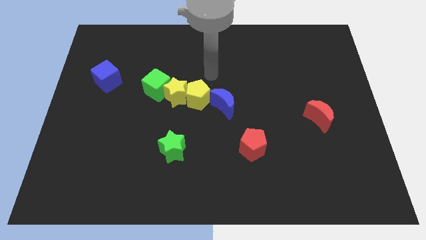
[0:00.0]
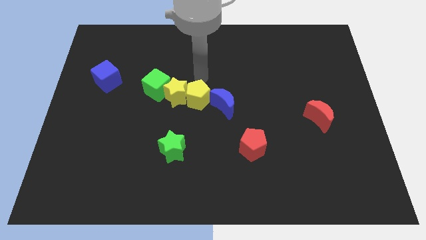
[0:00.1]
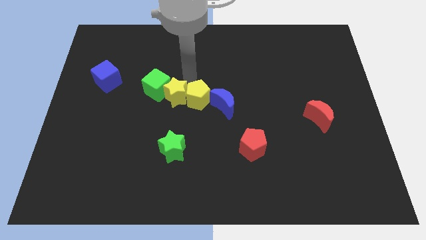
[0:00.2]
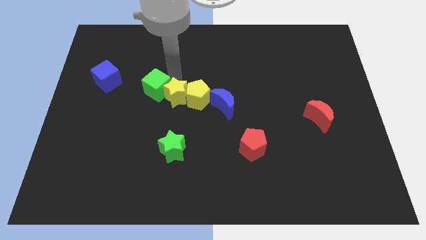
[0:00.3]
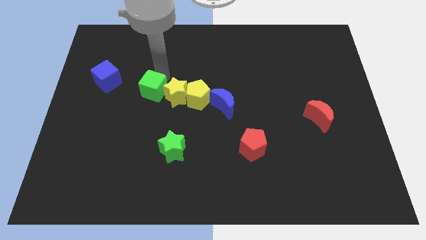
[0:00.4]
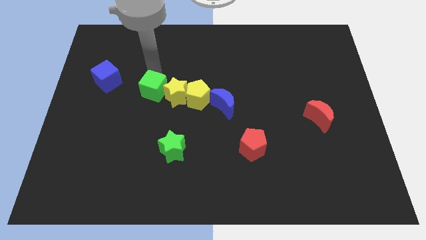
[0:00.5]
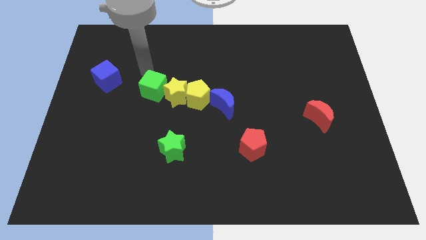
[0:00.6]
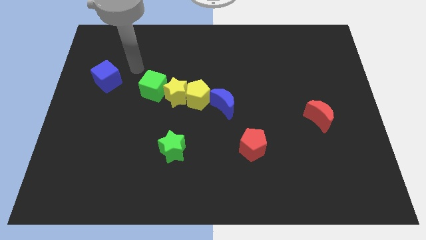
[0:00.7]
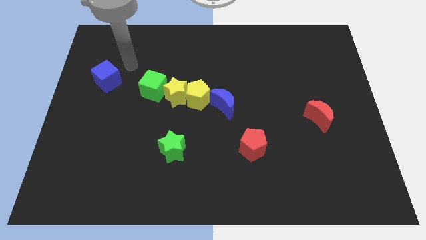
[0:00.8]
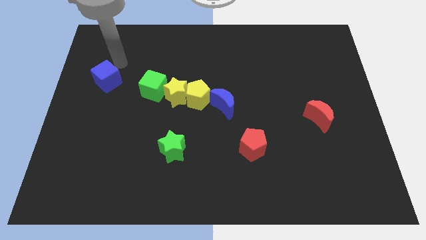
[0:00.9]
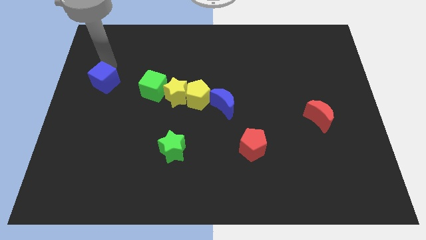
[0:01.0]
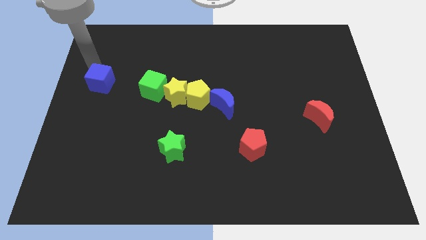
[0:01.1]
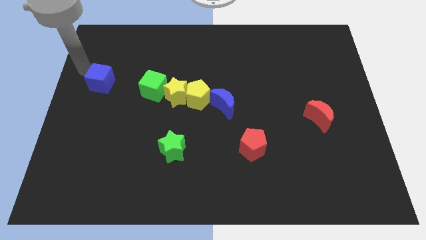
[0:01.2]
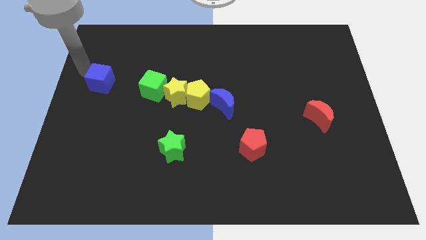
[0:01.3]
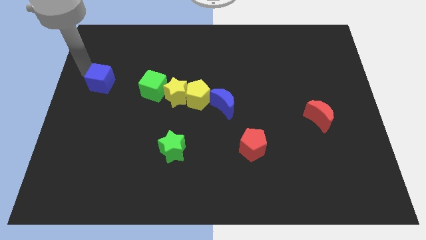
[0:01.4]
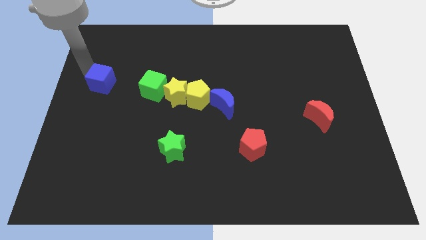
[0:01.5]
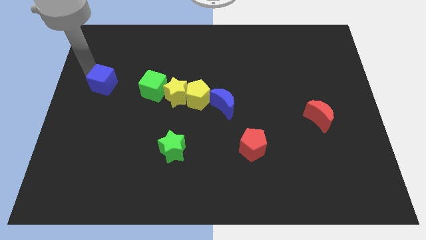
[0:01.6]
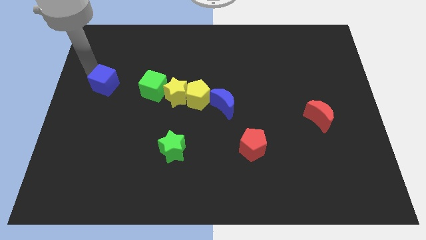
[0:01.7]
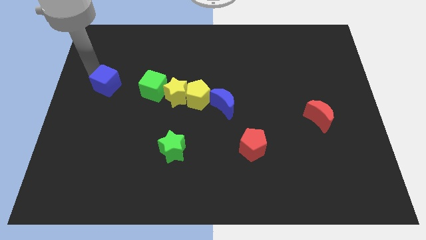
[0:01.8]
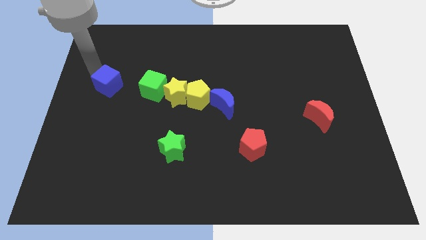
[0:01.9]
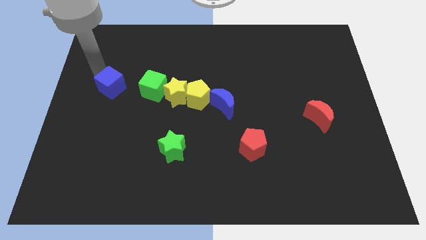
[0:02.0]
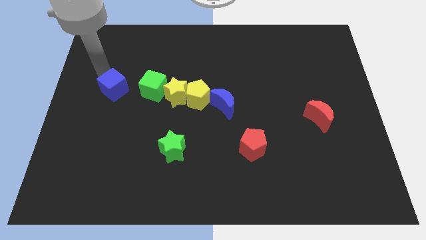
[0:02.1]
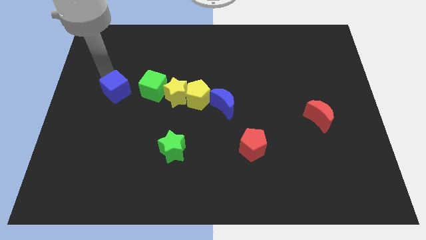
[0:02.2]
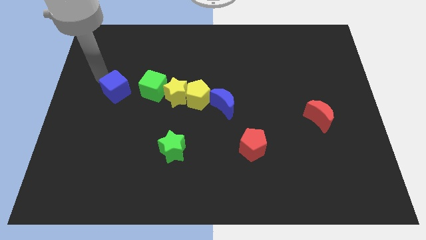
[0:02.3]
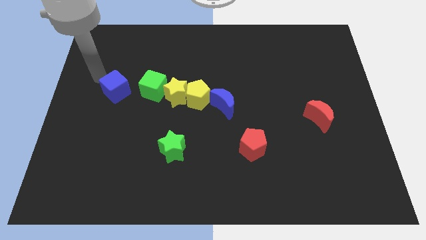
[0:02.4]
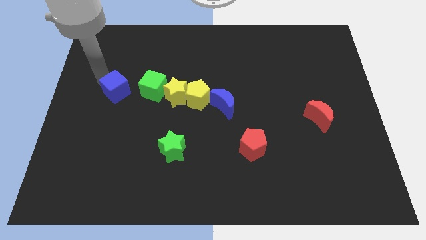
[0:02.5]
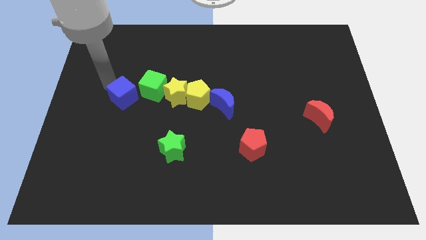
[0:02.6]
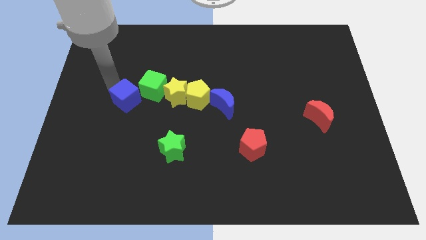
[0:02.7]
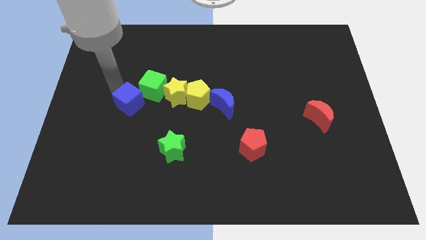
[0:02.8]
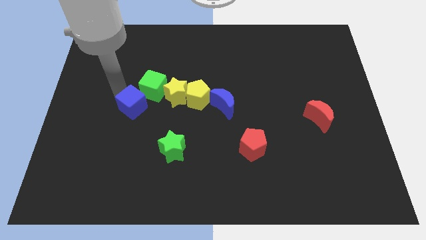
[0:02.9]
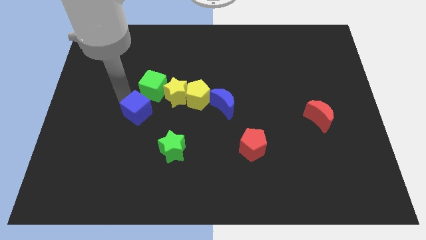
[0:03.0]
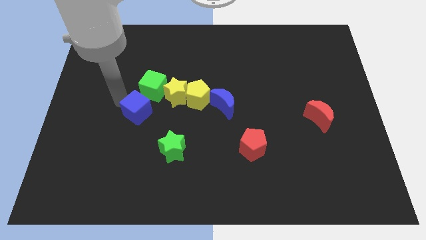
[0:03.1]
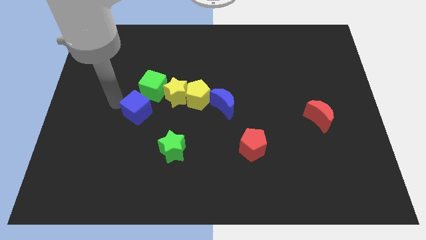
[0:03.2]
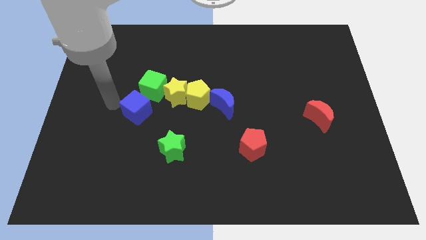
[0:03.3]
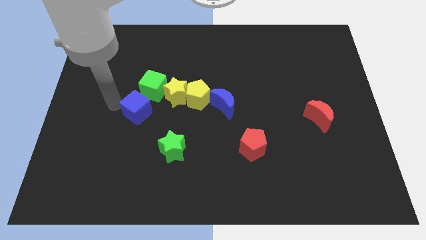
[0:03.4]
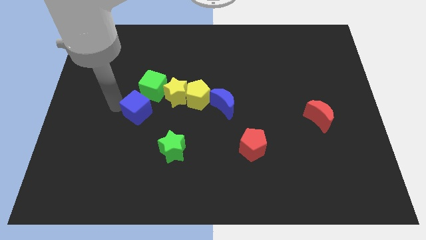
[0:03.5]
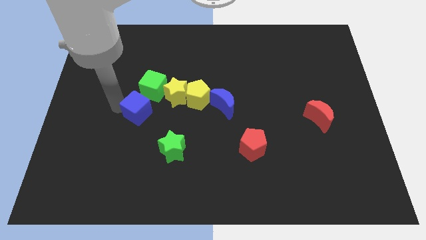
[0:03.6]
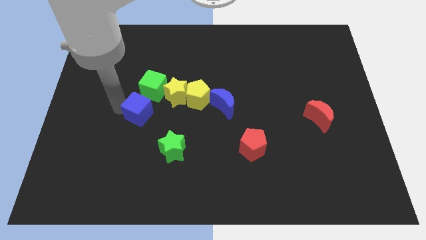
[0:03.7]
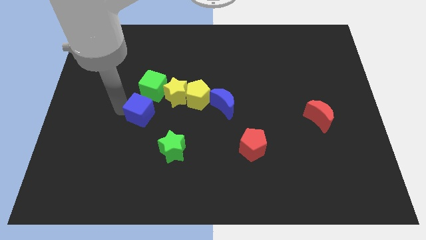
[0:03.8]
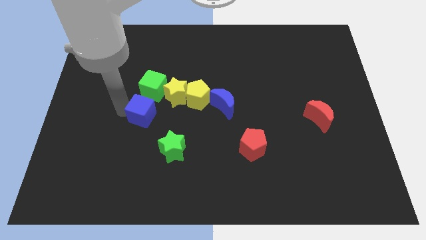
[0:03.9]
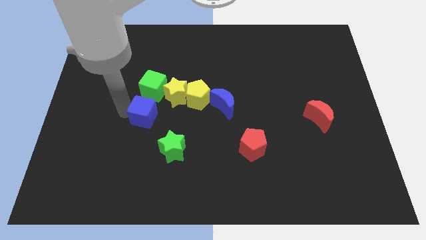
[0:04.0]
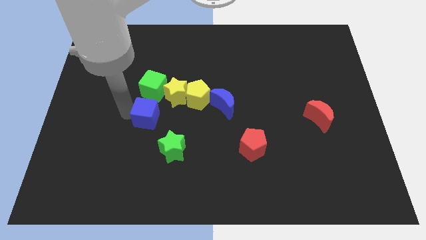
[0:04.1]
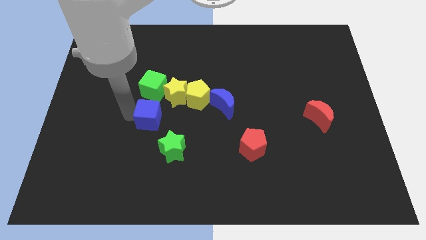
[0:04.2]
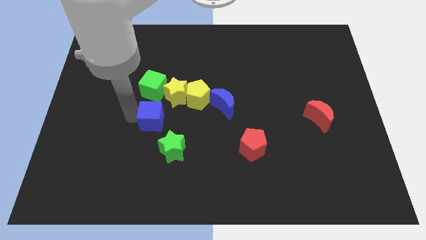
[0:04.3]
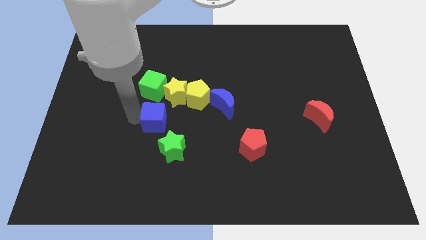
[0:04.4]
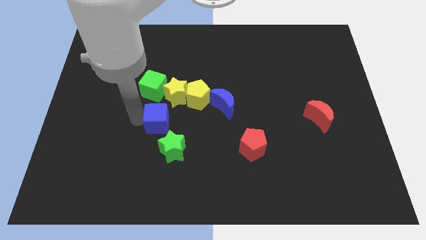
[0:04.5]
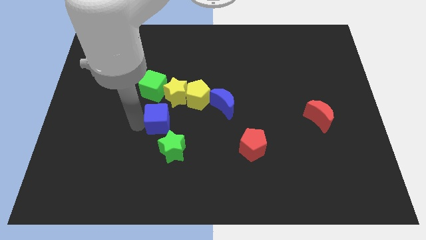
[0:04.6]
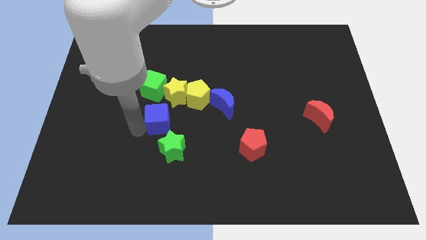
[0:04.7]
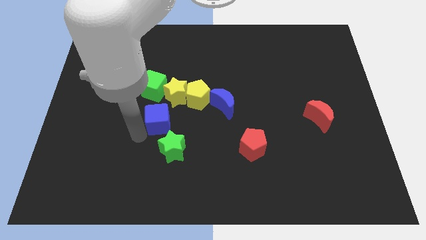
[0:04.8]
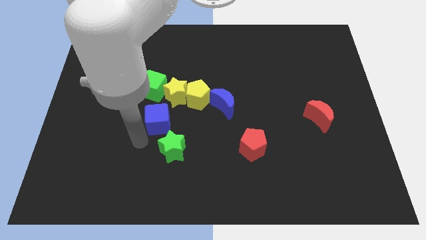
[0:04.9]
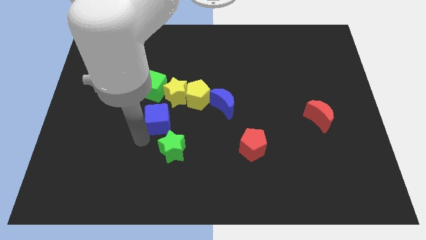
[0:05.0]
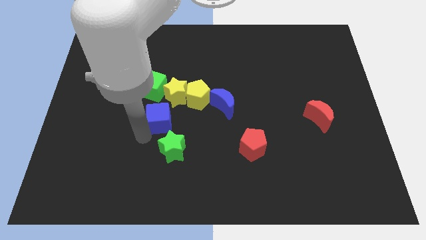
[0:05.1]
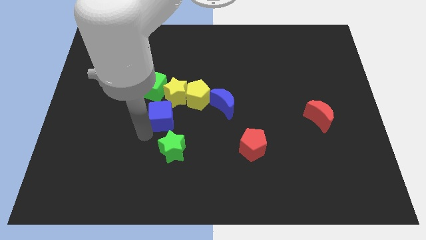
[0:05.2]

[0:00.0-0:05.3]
slide the blue cube diagonally down and to the right of the green cube

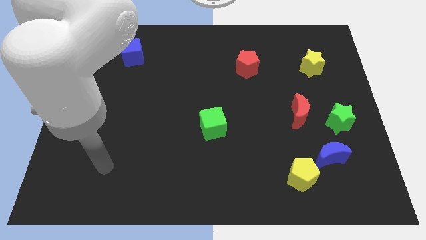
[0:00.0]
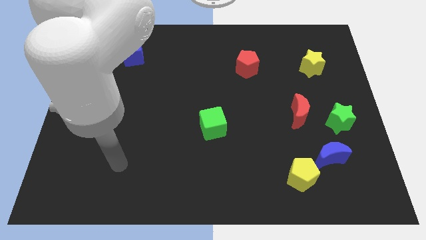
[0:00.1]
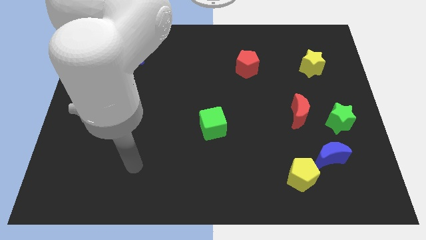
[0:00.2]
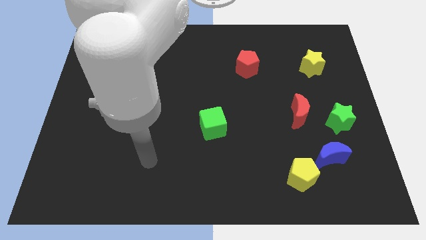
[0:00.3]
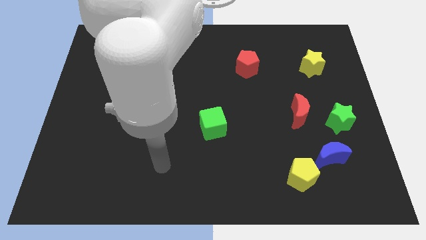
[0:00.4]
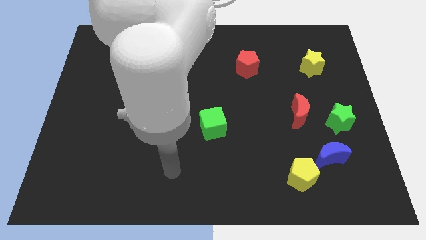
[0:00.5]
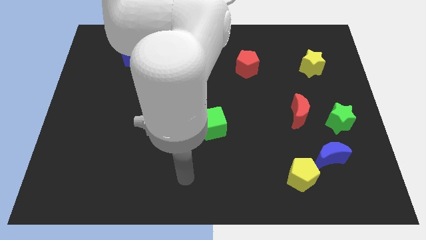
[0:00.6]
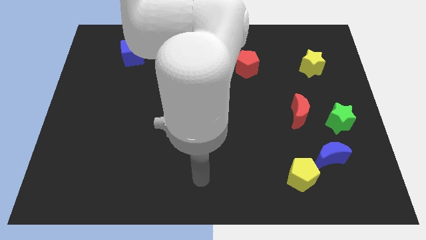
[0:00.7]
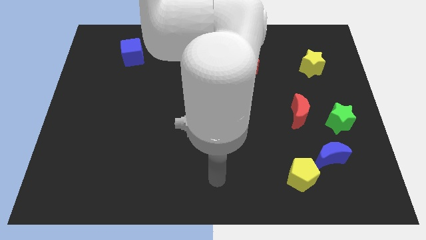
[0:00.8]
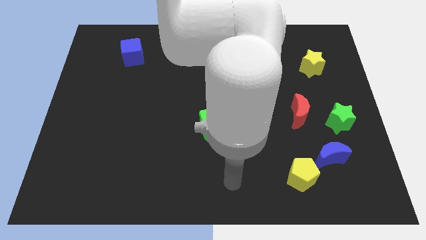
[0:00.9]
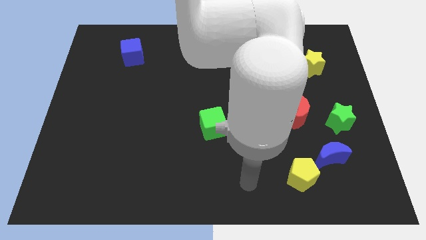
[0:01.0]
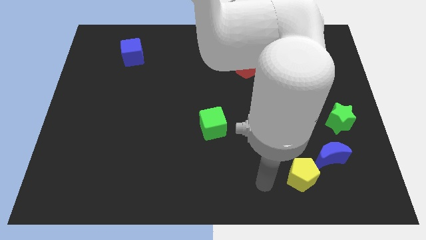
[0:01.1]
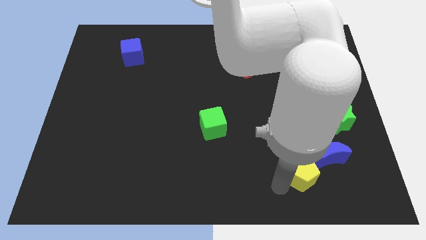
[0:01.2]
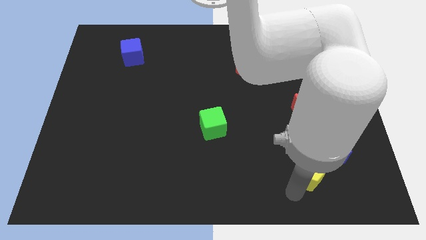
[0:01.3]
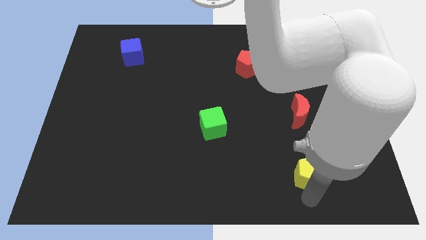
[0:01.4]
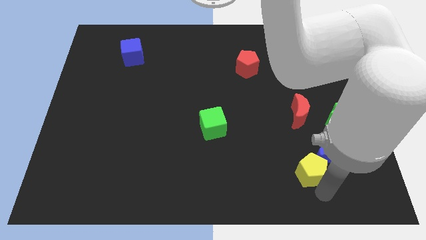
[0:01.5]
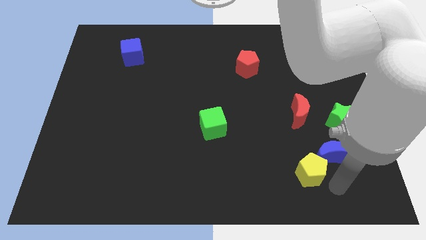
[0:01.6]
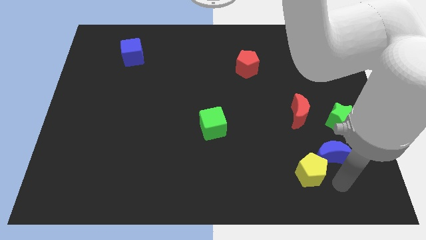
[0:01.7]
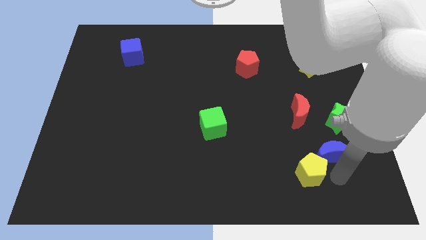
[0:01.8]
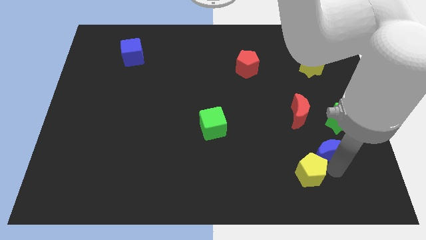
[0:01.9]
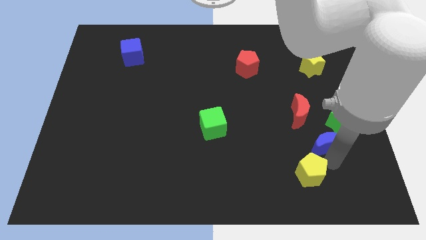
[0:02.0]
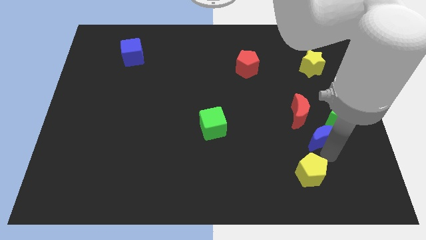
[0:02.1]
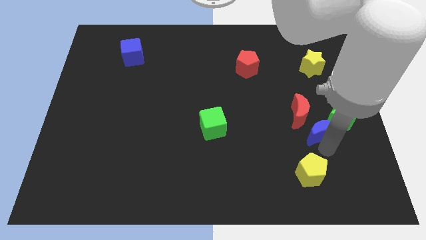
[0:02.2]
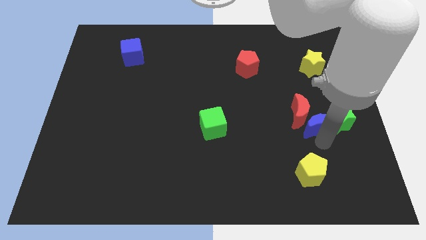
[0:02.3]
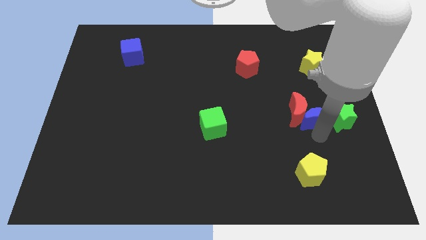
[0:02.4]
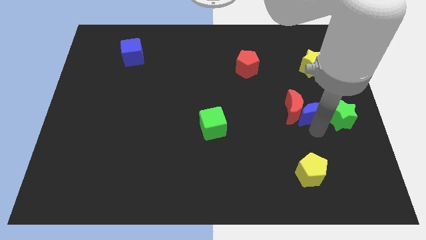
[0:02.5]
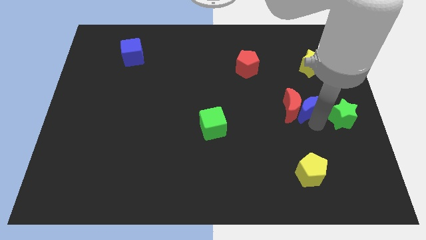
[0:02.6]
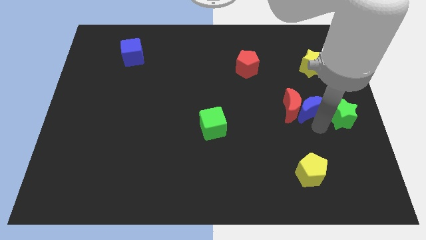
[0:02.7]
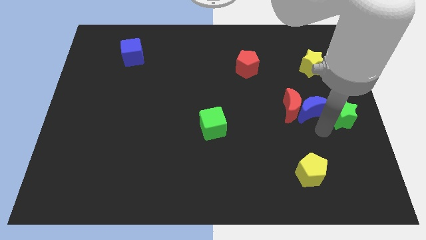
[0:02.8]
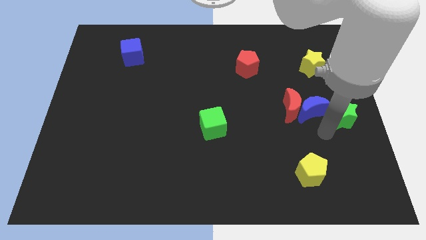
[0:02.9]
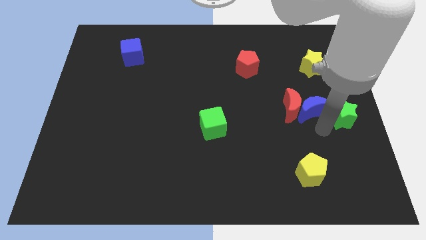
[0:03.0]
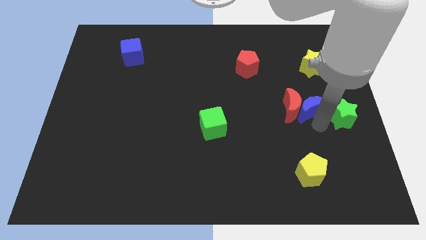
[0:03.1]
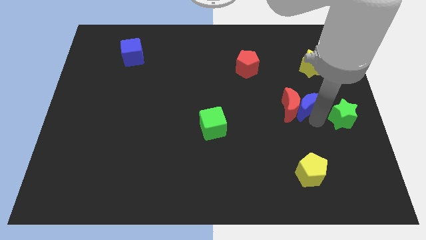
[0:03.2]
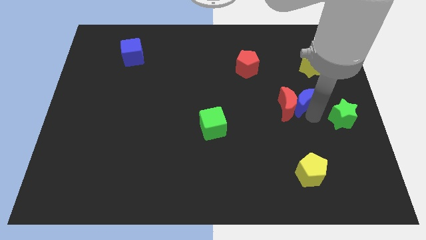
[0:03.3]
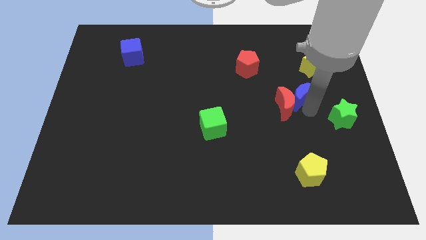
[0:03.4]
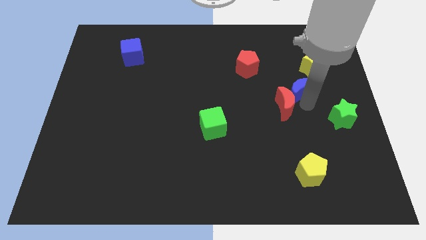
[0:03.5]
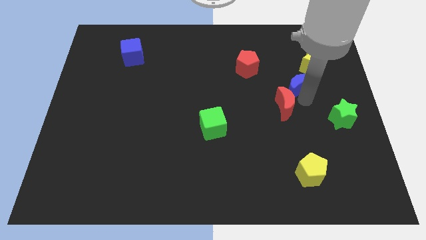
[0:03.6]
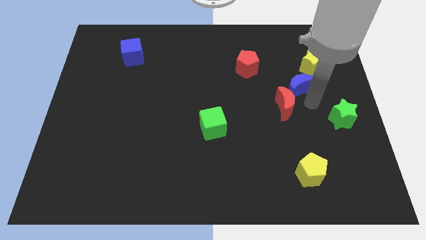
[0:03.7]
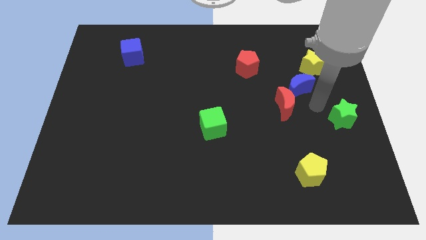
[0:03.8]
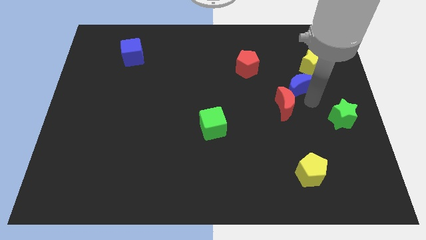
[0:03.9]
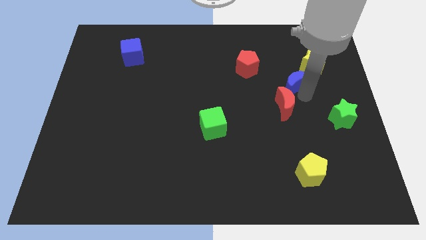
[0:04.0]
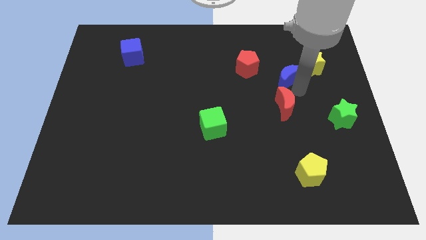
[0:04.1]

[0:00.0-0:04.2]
slide the blue moon to the left side of the yellow star
